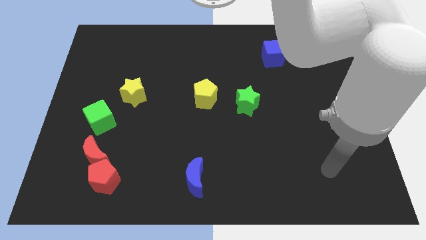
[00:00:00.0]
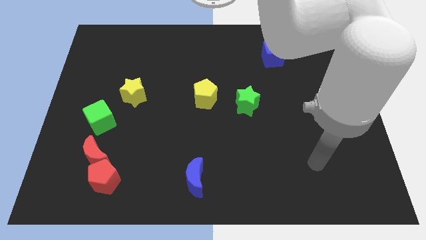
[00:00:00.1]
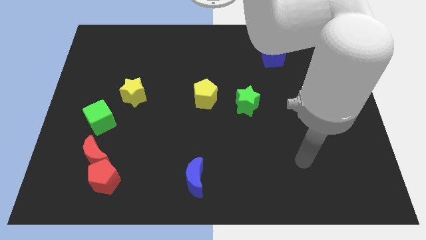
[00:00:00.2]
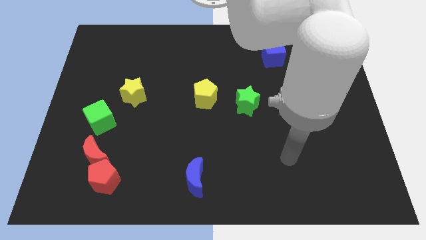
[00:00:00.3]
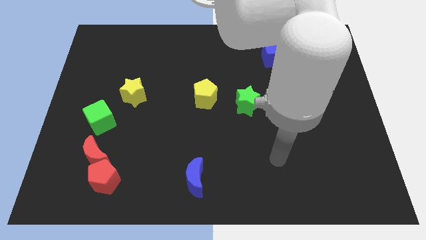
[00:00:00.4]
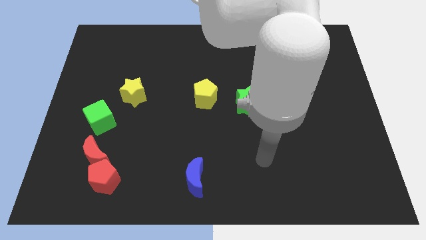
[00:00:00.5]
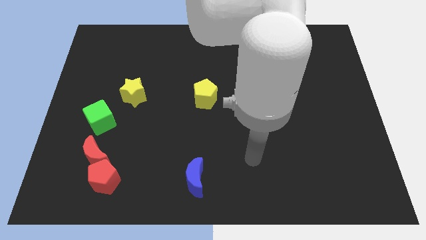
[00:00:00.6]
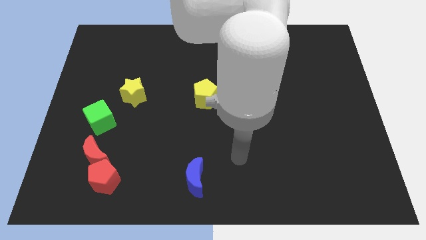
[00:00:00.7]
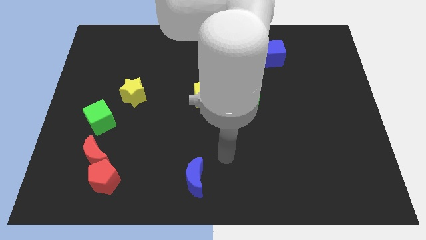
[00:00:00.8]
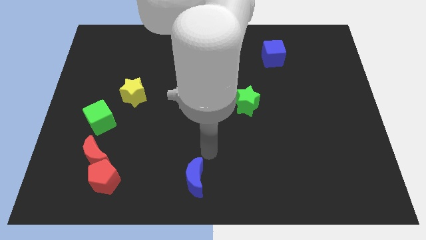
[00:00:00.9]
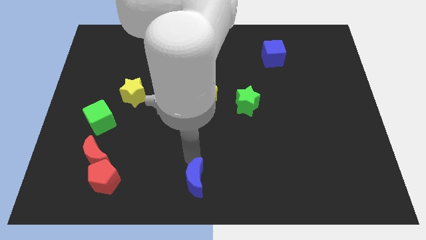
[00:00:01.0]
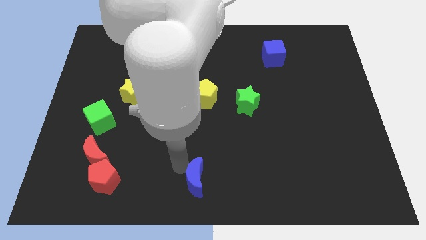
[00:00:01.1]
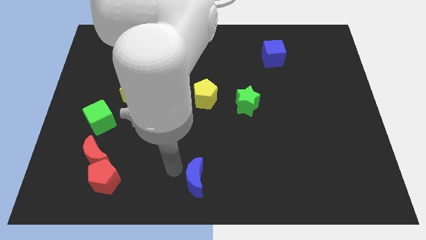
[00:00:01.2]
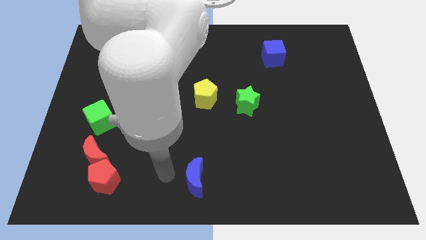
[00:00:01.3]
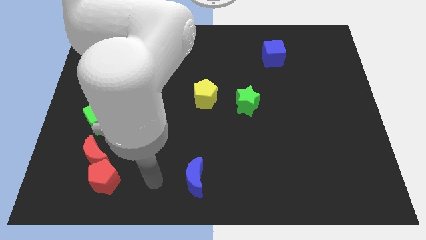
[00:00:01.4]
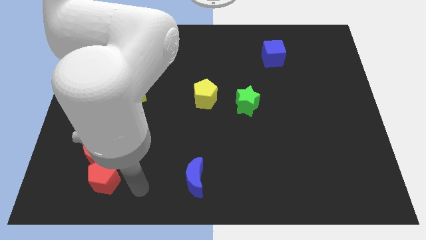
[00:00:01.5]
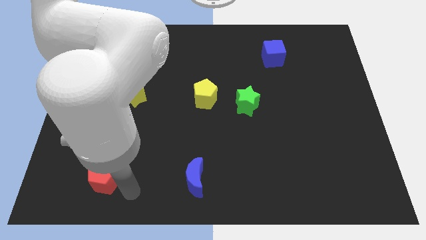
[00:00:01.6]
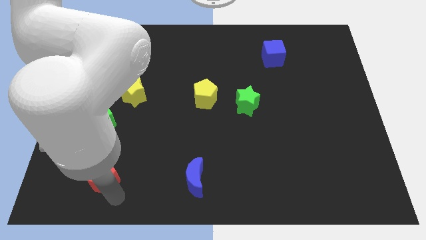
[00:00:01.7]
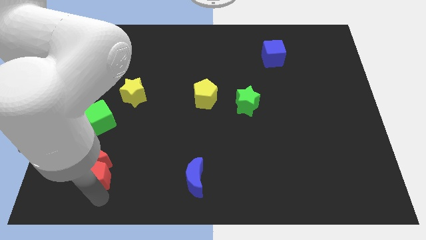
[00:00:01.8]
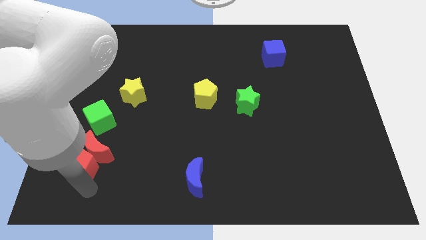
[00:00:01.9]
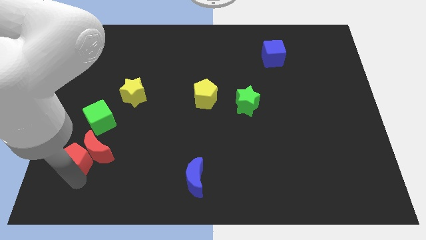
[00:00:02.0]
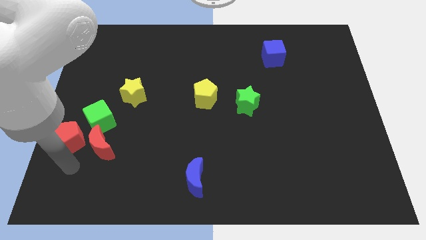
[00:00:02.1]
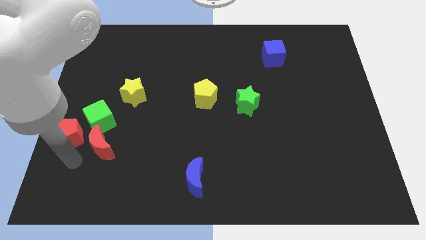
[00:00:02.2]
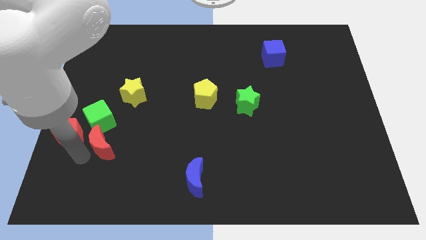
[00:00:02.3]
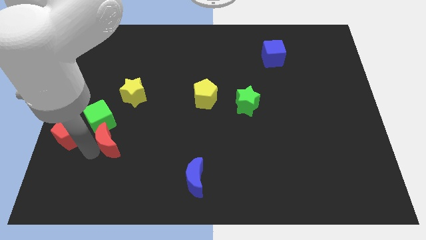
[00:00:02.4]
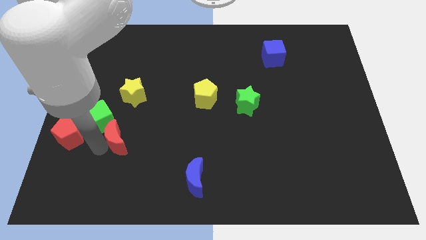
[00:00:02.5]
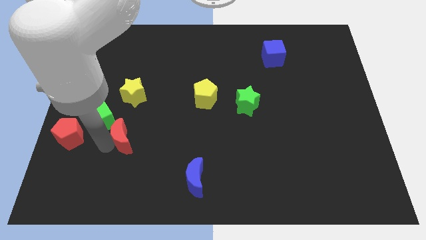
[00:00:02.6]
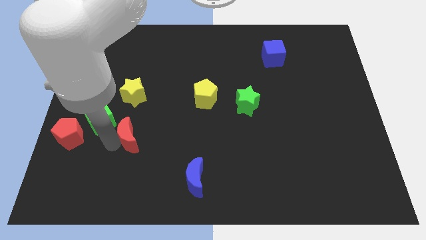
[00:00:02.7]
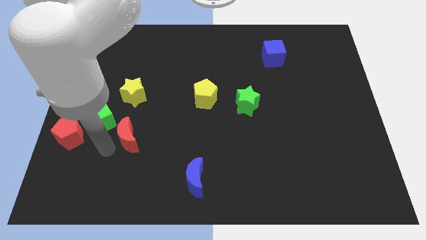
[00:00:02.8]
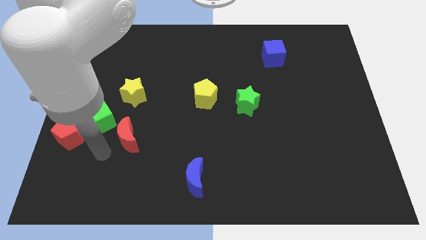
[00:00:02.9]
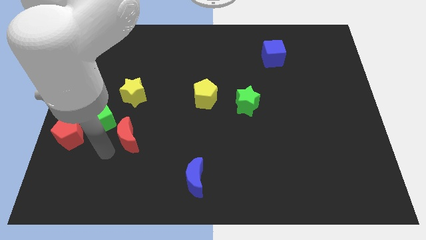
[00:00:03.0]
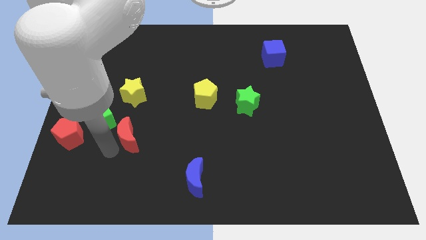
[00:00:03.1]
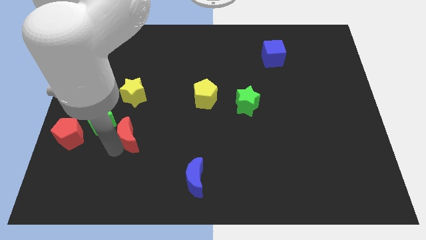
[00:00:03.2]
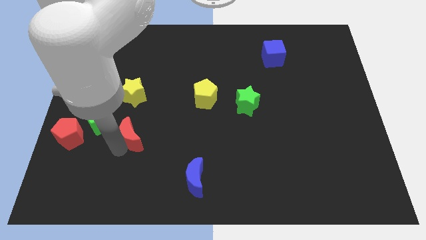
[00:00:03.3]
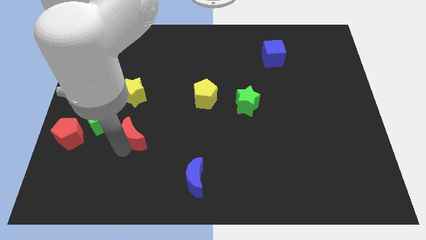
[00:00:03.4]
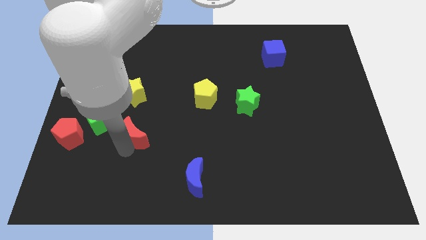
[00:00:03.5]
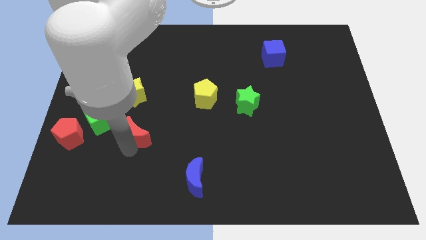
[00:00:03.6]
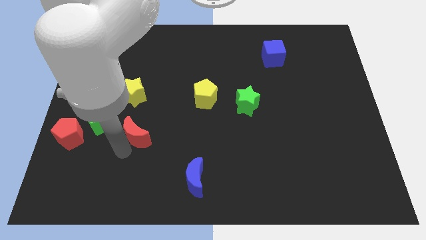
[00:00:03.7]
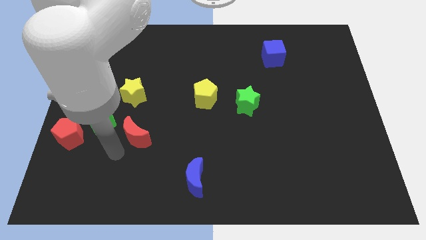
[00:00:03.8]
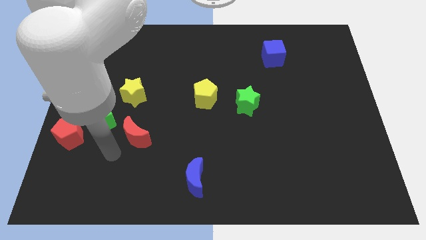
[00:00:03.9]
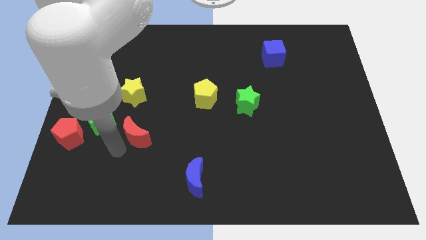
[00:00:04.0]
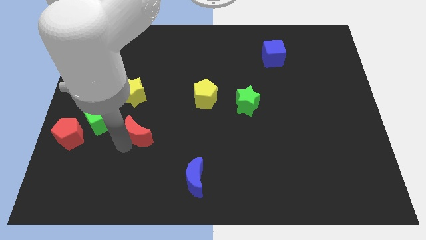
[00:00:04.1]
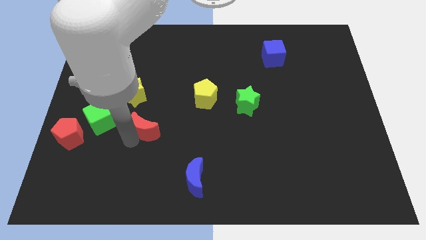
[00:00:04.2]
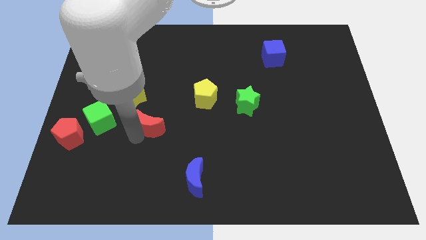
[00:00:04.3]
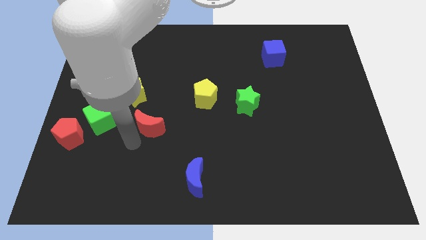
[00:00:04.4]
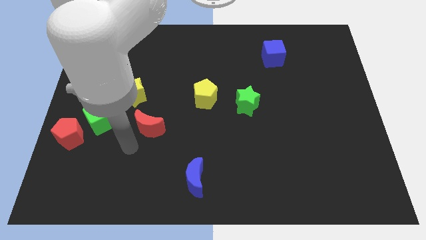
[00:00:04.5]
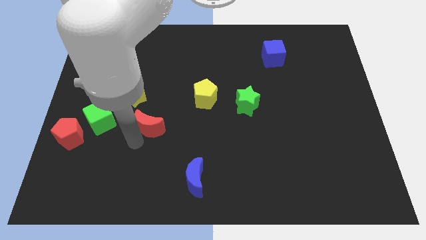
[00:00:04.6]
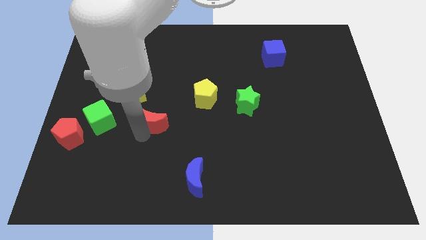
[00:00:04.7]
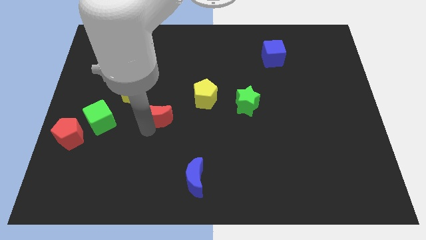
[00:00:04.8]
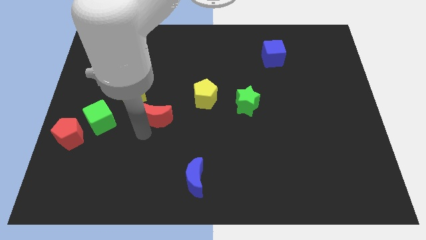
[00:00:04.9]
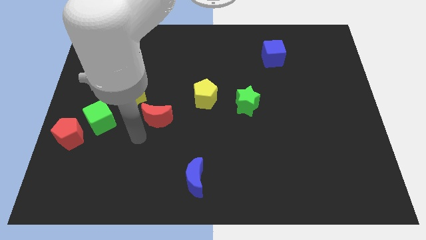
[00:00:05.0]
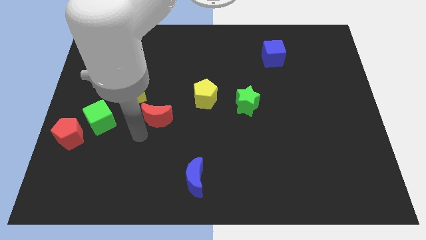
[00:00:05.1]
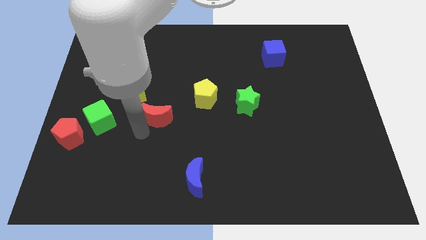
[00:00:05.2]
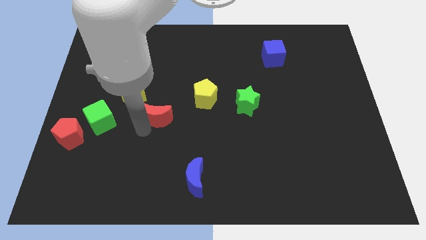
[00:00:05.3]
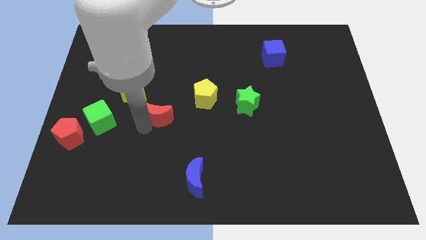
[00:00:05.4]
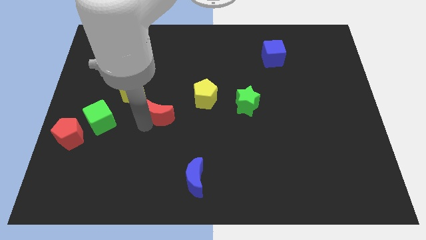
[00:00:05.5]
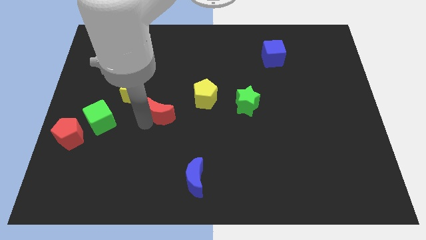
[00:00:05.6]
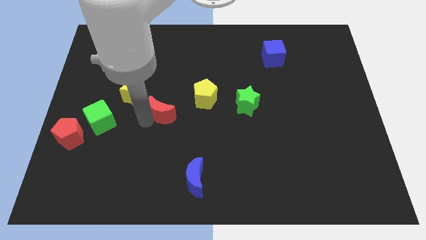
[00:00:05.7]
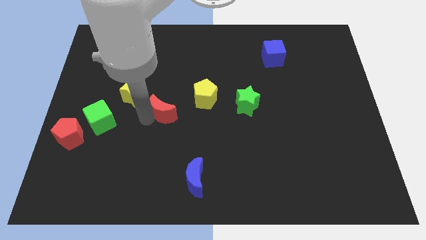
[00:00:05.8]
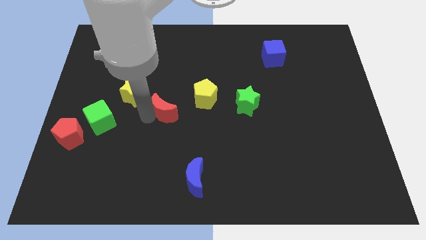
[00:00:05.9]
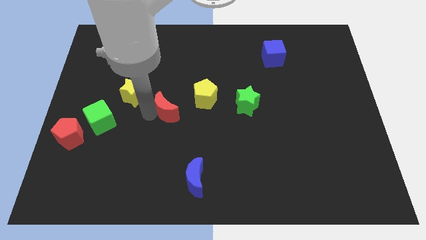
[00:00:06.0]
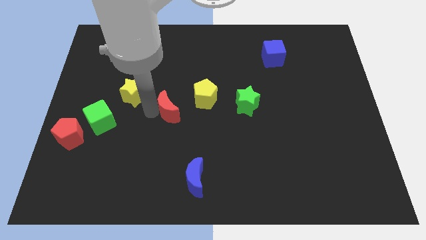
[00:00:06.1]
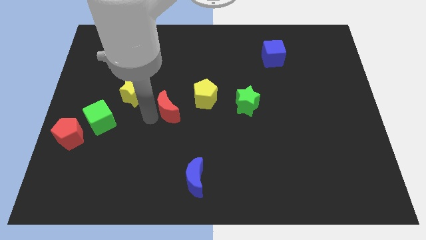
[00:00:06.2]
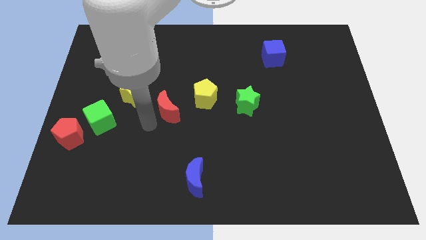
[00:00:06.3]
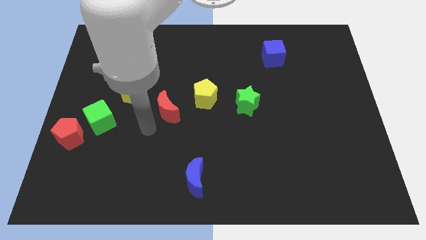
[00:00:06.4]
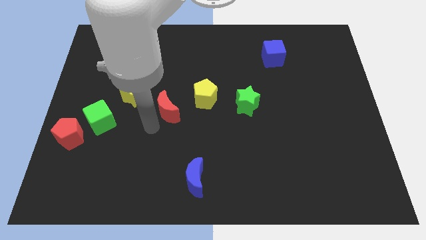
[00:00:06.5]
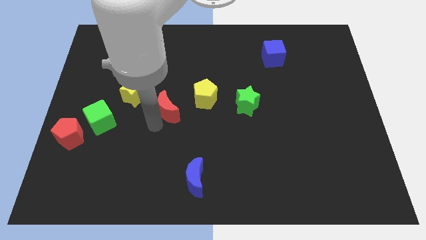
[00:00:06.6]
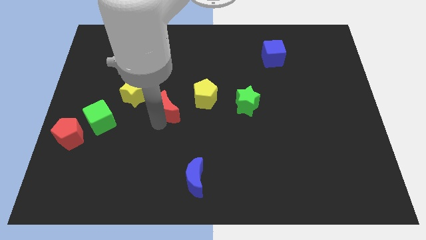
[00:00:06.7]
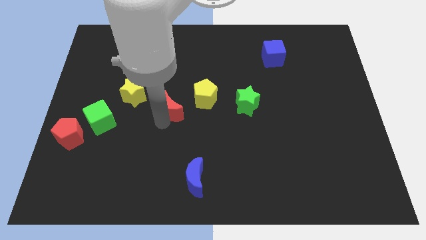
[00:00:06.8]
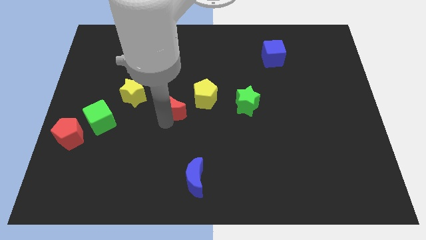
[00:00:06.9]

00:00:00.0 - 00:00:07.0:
push the red moon diagonally upwards and right

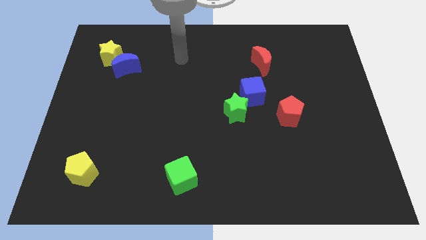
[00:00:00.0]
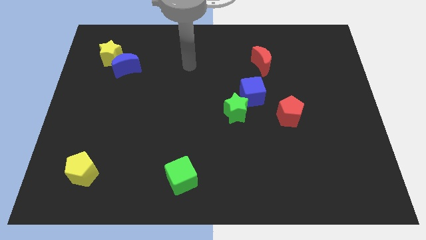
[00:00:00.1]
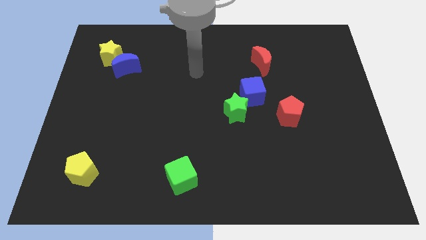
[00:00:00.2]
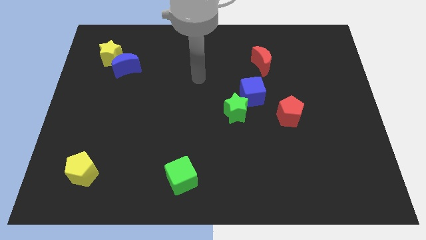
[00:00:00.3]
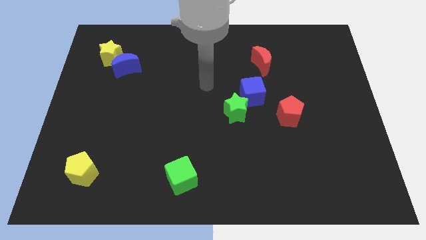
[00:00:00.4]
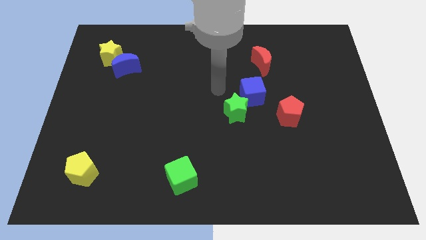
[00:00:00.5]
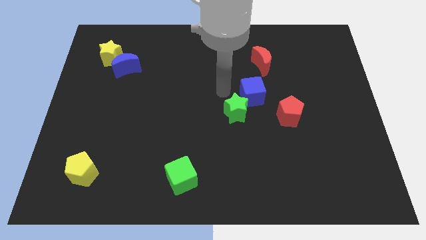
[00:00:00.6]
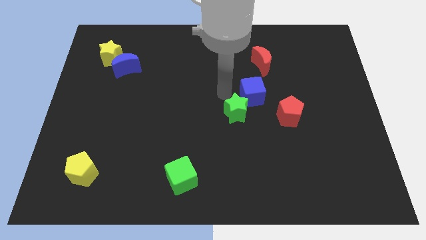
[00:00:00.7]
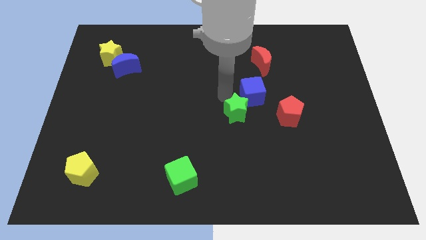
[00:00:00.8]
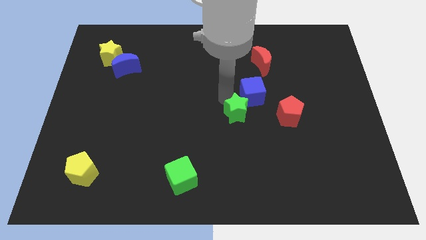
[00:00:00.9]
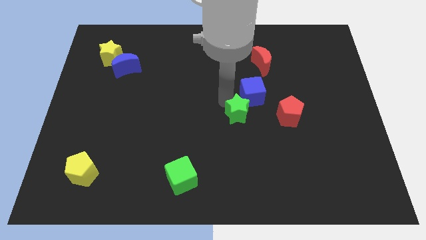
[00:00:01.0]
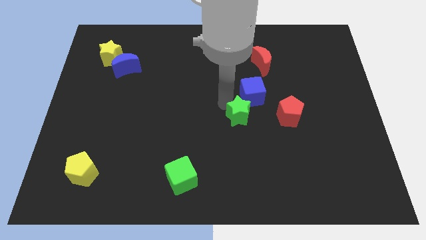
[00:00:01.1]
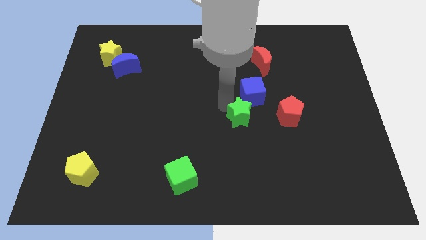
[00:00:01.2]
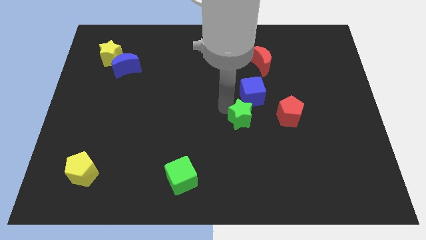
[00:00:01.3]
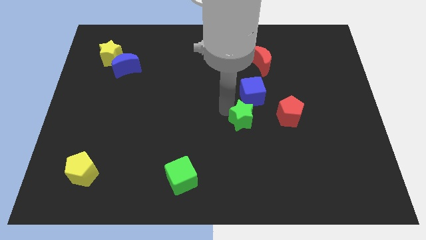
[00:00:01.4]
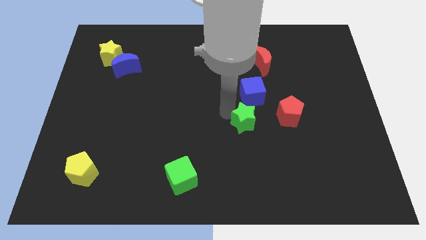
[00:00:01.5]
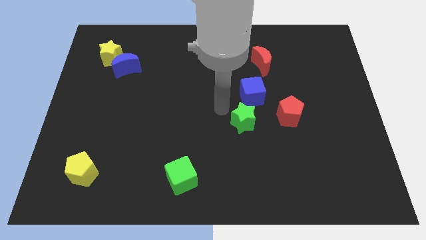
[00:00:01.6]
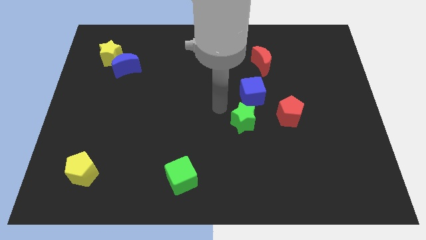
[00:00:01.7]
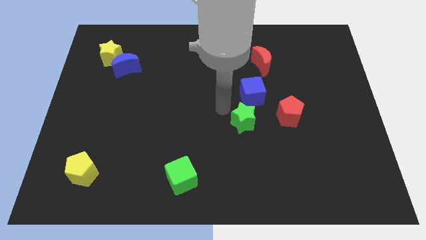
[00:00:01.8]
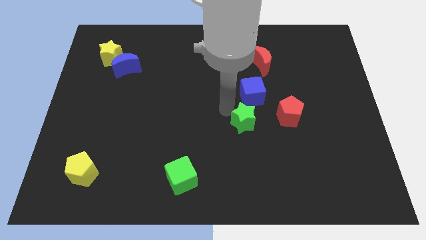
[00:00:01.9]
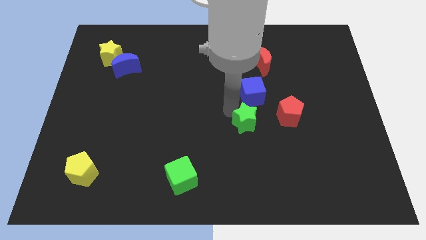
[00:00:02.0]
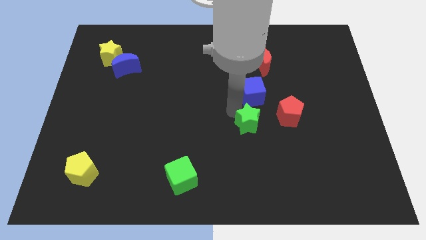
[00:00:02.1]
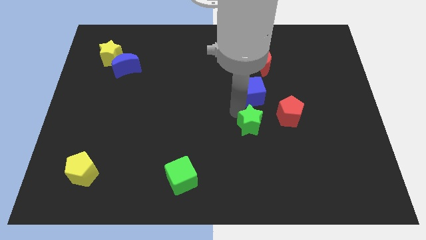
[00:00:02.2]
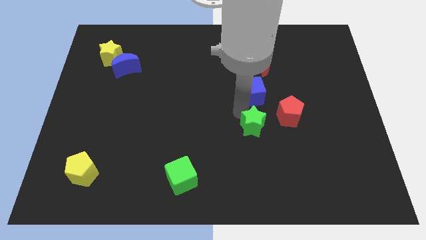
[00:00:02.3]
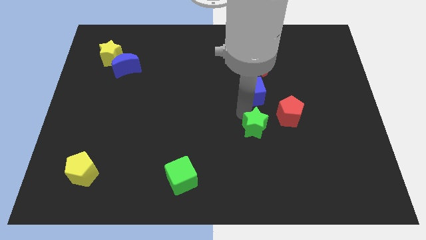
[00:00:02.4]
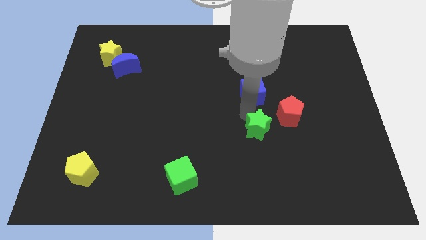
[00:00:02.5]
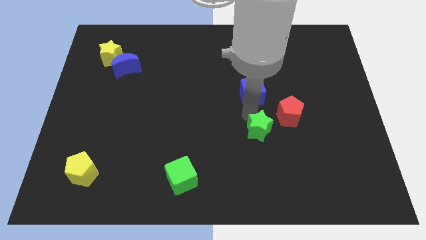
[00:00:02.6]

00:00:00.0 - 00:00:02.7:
move the green star down and then right somewhat
